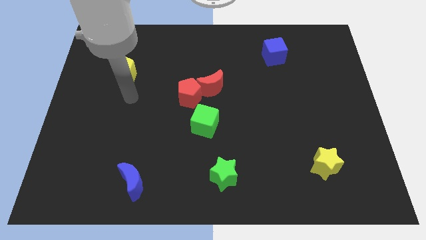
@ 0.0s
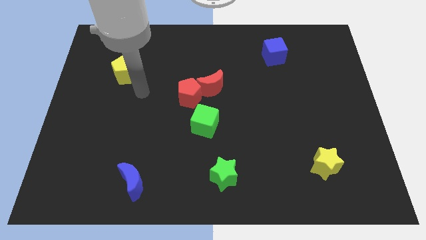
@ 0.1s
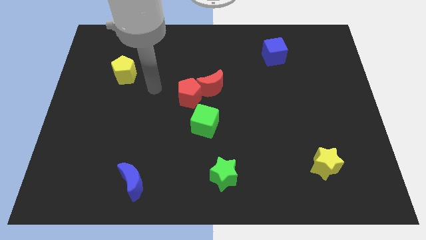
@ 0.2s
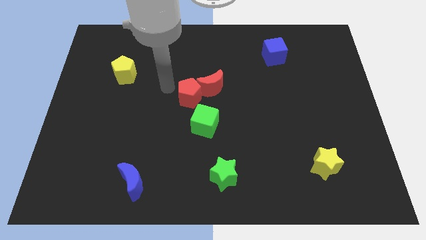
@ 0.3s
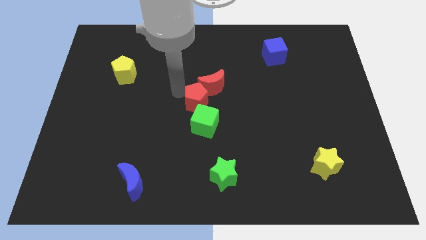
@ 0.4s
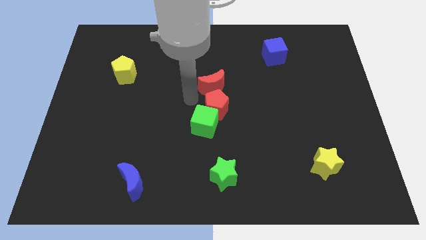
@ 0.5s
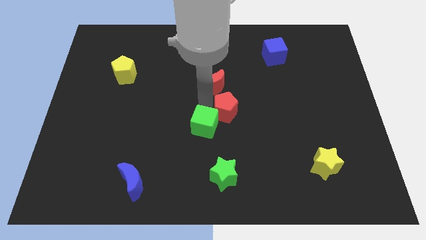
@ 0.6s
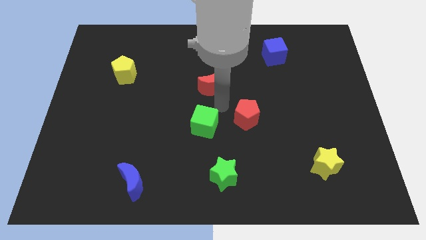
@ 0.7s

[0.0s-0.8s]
separate the red moon from the red pentagon

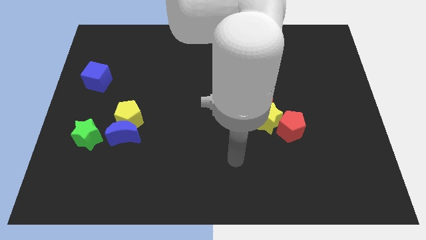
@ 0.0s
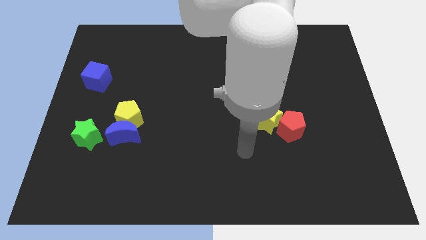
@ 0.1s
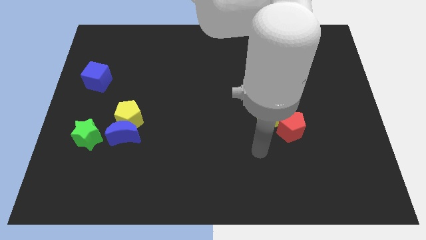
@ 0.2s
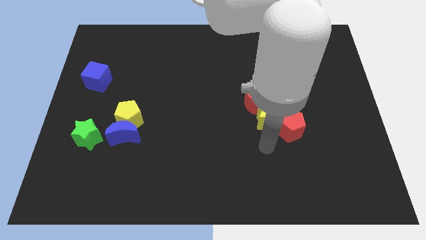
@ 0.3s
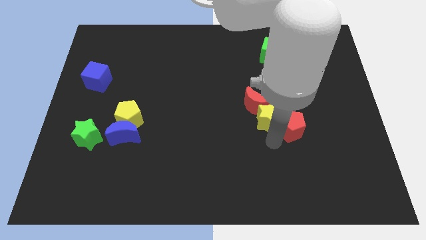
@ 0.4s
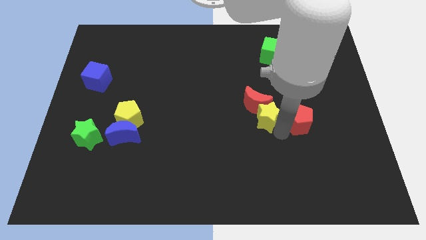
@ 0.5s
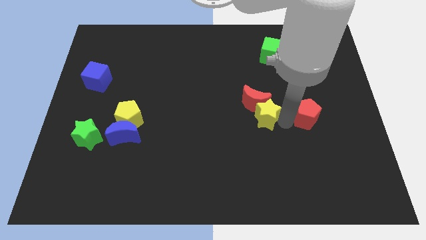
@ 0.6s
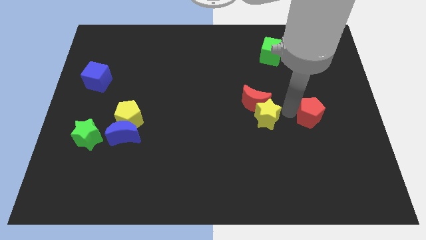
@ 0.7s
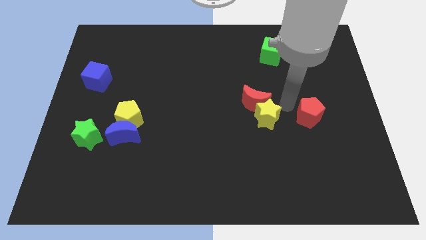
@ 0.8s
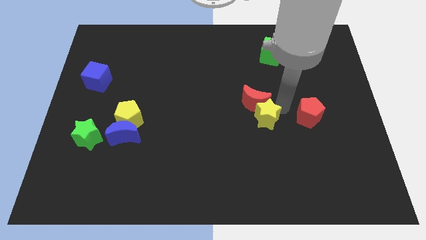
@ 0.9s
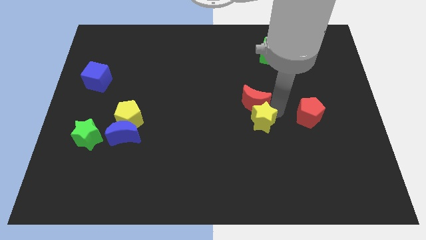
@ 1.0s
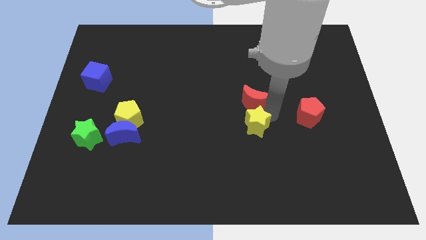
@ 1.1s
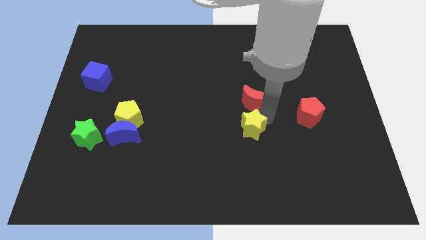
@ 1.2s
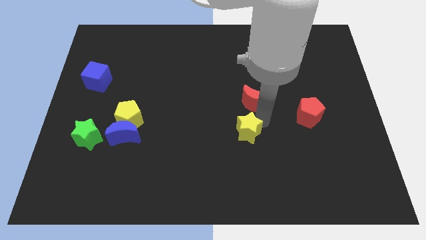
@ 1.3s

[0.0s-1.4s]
separate the yellow star from the red moon and red pentagon

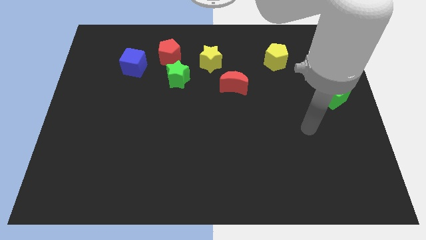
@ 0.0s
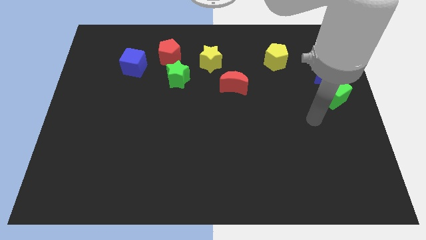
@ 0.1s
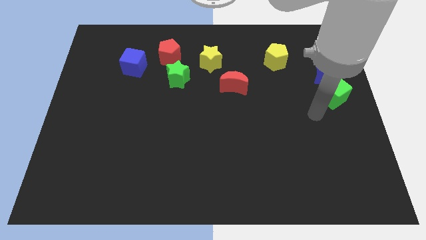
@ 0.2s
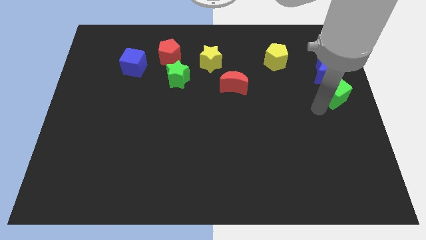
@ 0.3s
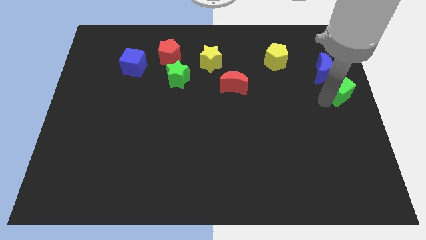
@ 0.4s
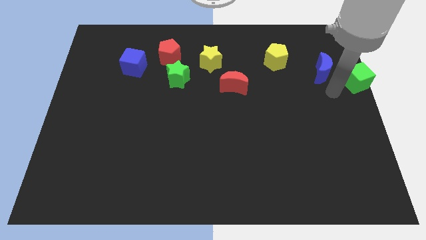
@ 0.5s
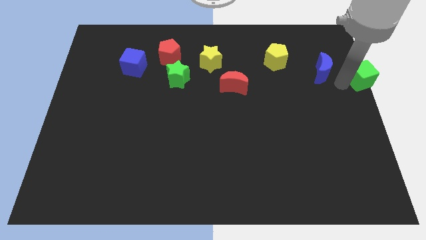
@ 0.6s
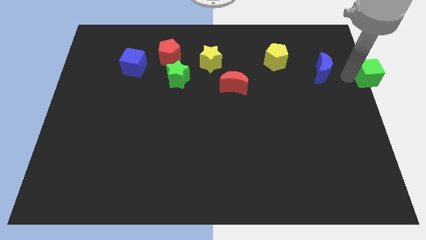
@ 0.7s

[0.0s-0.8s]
separate the blue moon from the green cube

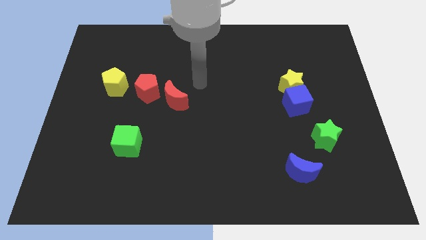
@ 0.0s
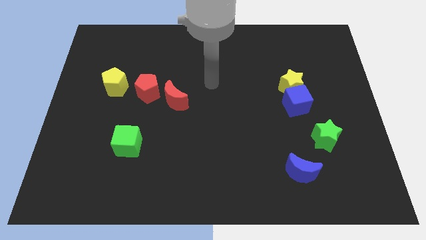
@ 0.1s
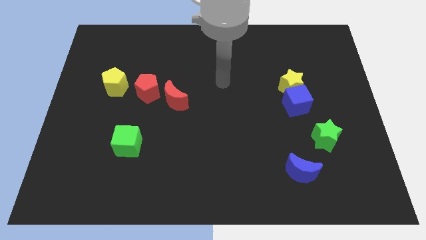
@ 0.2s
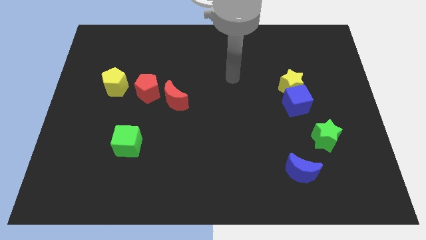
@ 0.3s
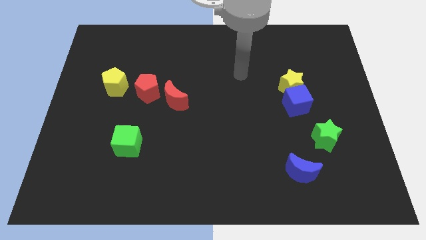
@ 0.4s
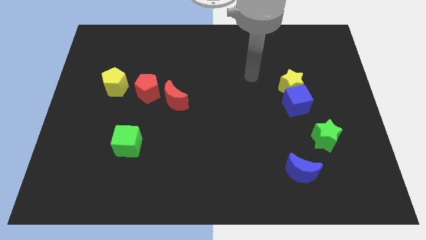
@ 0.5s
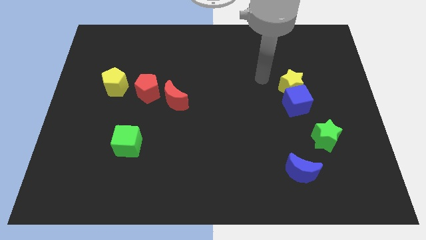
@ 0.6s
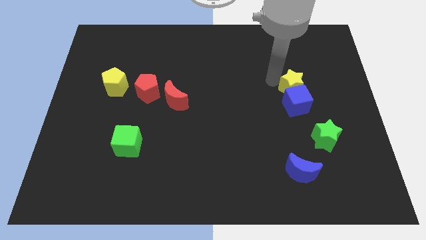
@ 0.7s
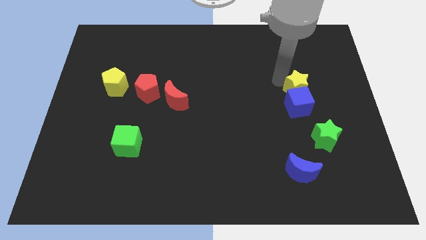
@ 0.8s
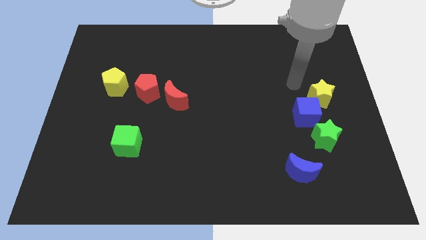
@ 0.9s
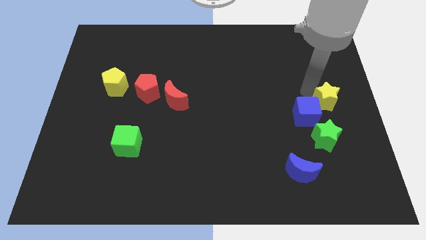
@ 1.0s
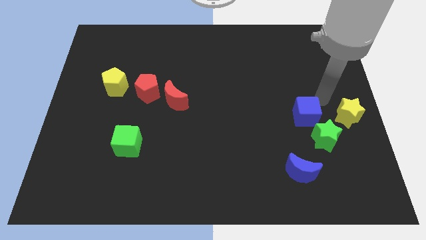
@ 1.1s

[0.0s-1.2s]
move the blue cube away from the yellow star

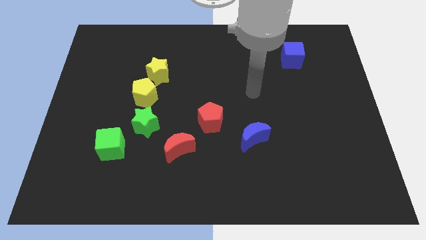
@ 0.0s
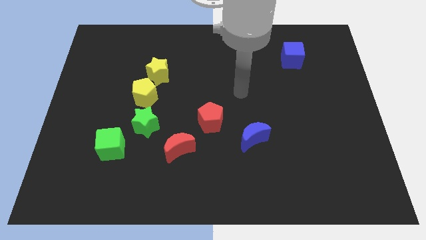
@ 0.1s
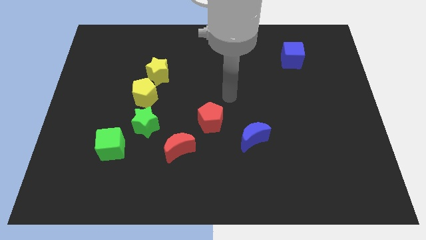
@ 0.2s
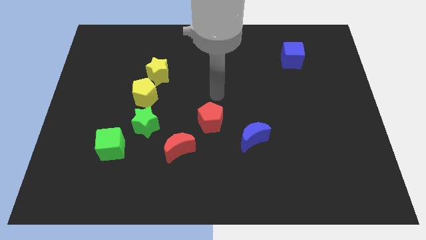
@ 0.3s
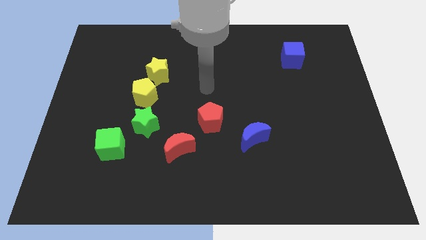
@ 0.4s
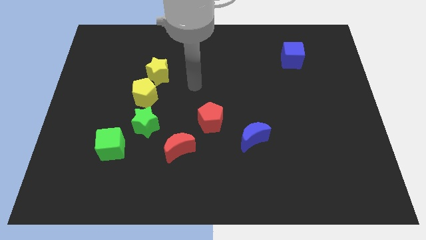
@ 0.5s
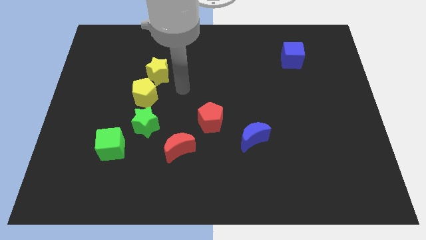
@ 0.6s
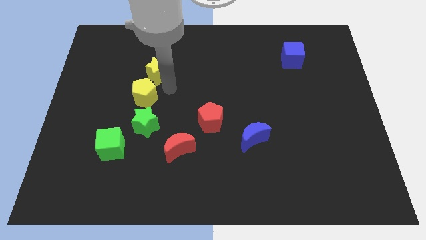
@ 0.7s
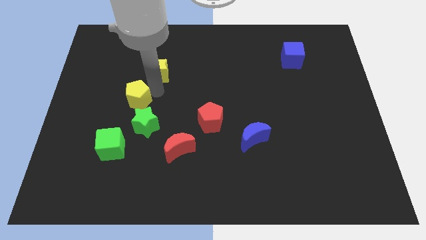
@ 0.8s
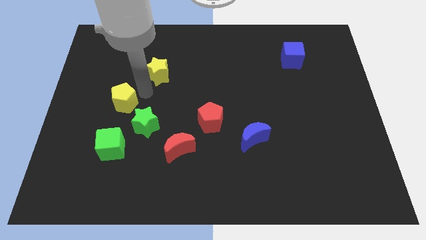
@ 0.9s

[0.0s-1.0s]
move the yellow star away from the yellow pentagon

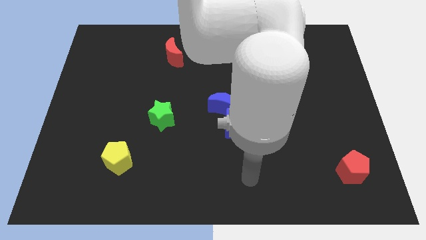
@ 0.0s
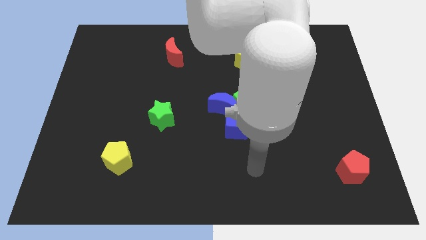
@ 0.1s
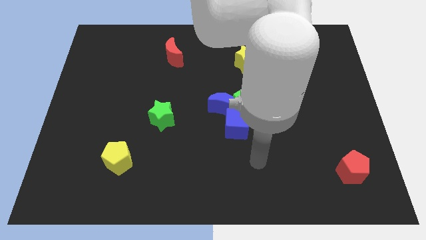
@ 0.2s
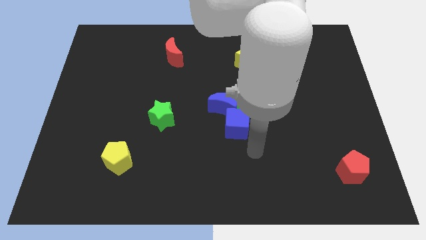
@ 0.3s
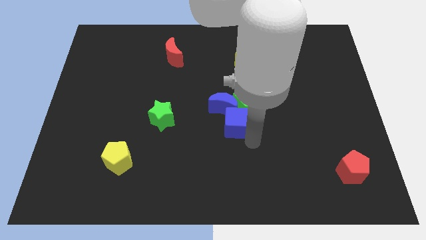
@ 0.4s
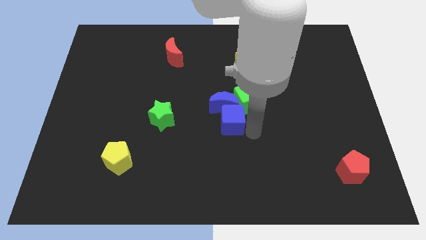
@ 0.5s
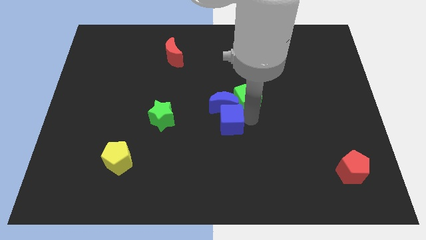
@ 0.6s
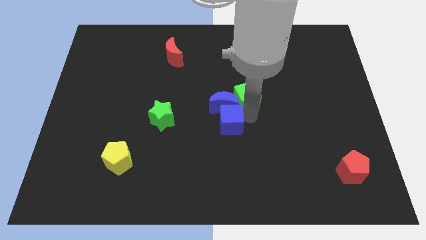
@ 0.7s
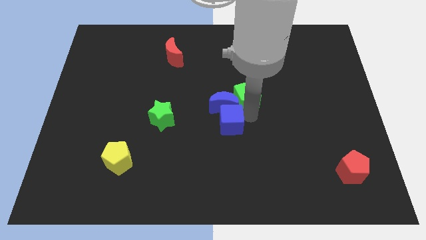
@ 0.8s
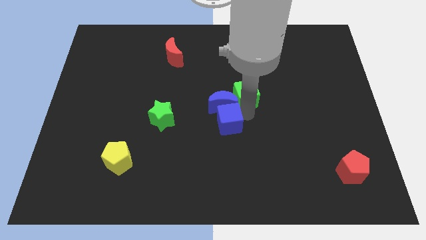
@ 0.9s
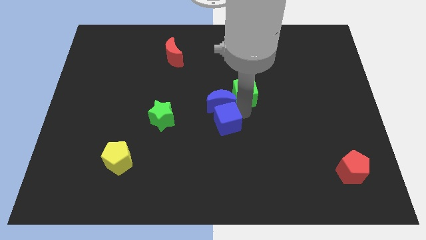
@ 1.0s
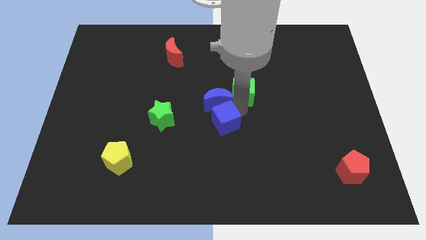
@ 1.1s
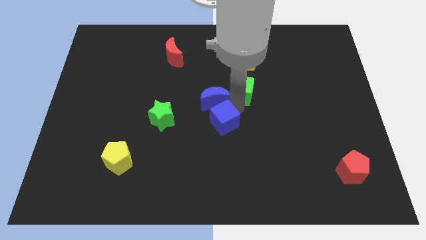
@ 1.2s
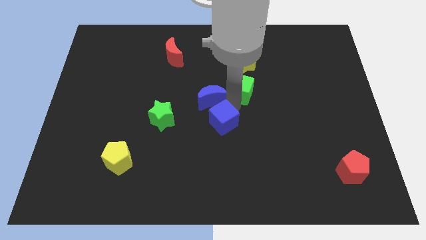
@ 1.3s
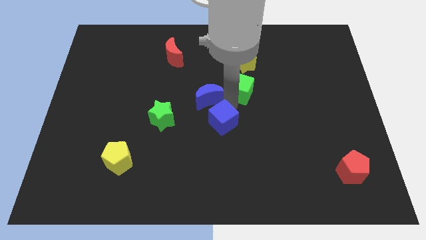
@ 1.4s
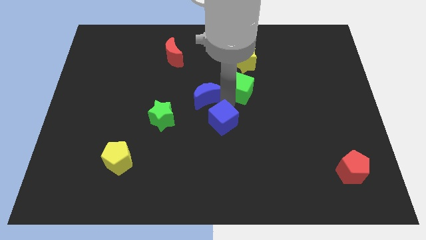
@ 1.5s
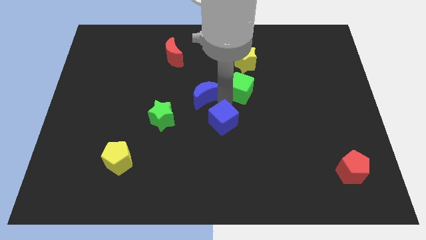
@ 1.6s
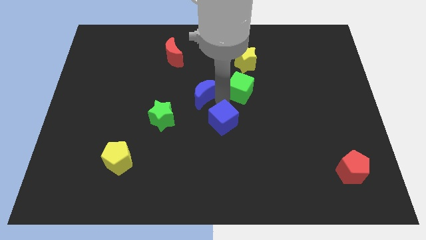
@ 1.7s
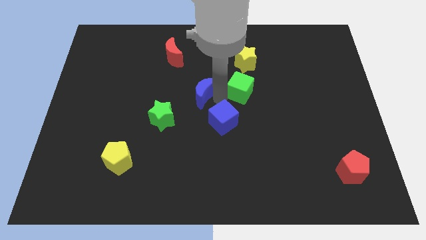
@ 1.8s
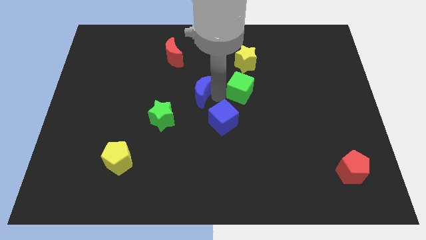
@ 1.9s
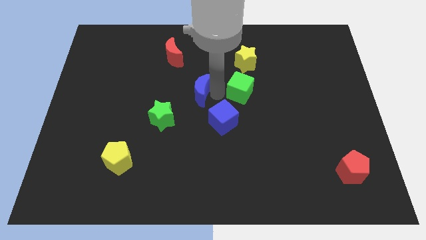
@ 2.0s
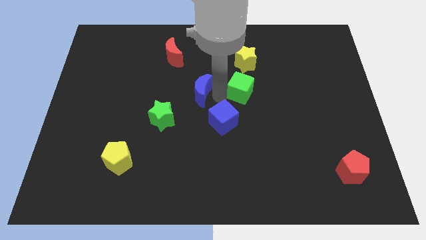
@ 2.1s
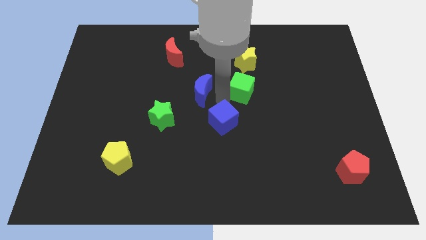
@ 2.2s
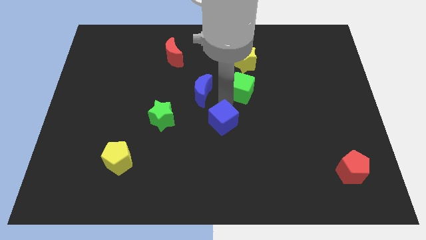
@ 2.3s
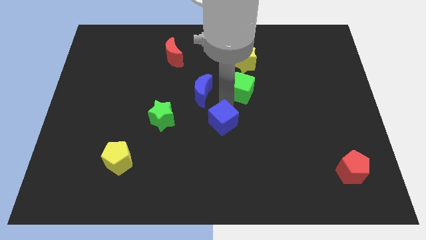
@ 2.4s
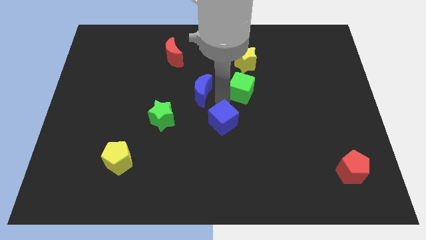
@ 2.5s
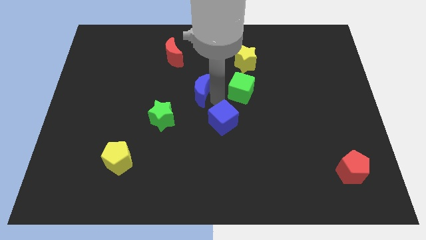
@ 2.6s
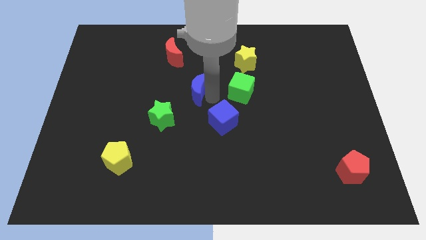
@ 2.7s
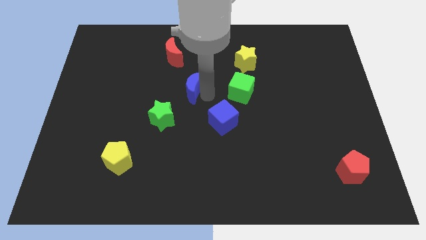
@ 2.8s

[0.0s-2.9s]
move the blue moon away from the green cube and blue cube

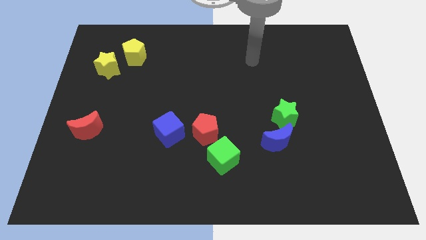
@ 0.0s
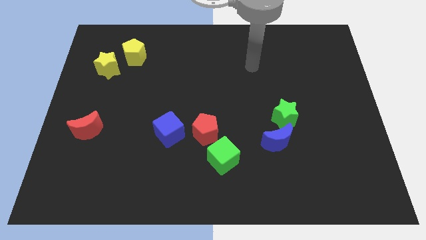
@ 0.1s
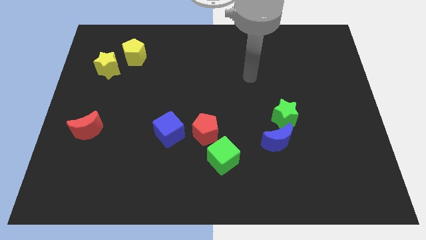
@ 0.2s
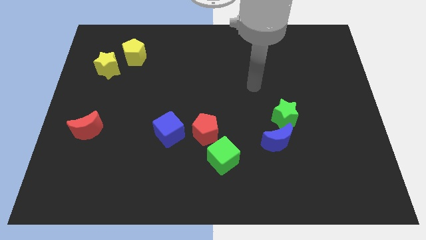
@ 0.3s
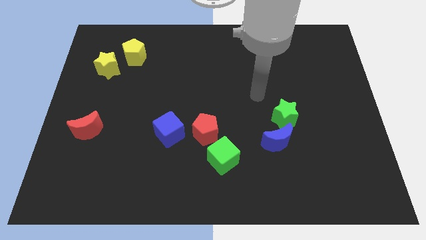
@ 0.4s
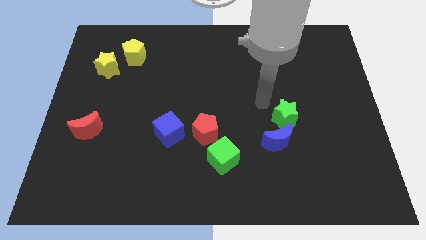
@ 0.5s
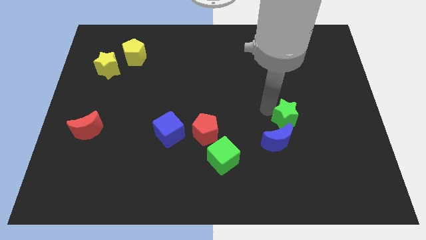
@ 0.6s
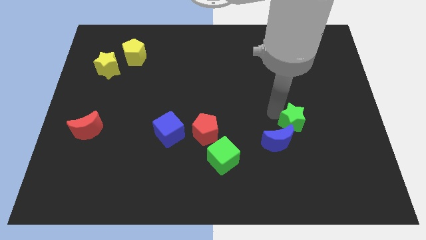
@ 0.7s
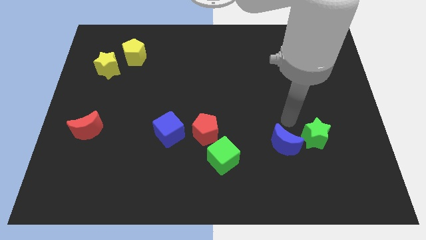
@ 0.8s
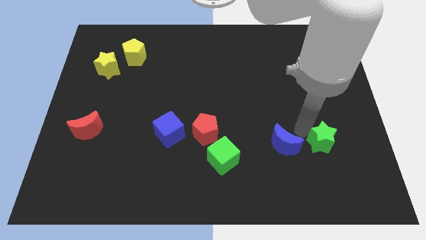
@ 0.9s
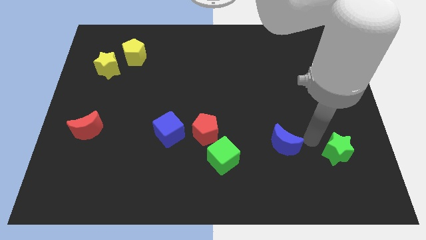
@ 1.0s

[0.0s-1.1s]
separate the blue moon from the green star

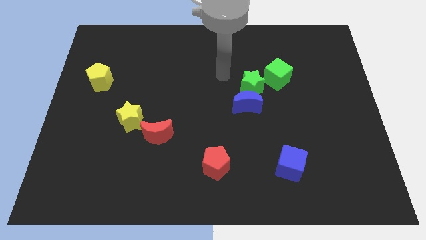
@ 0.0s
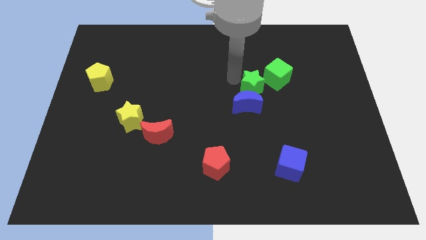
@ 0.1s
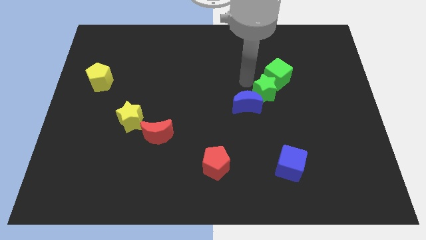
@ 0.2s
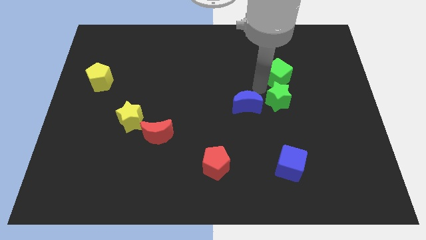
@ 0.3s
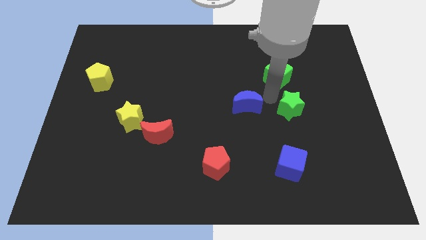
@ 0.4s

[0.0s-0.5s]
pull the blue moon apart from the green star
